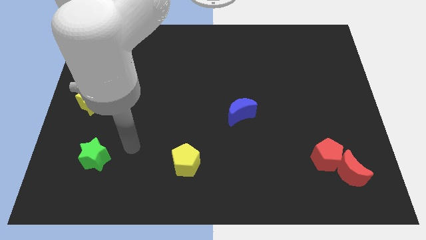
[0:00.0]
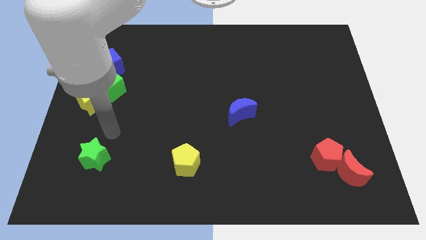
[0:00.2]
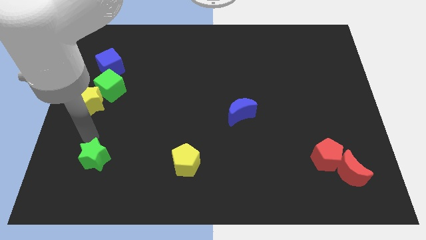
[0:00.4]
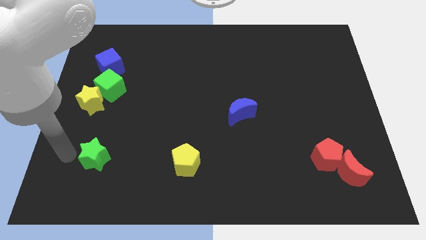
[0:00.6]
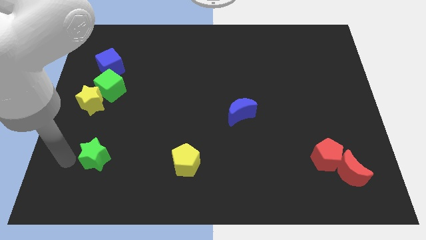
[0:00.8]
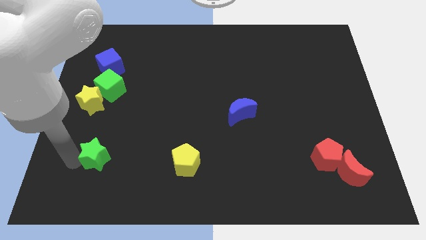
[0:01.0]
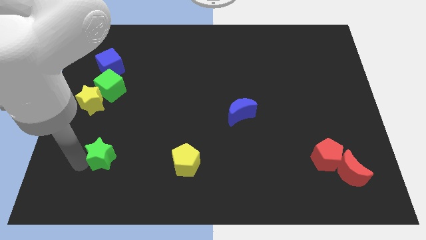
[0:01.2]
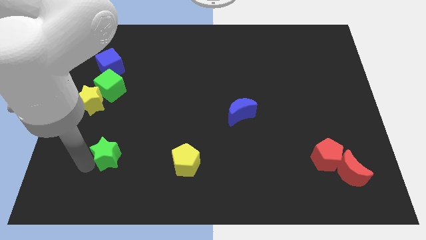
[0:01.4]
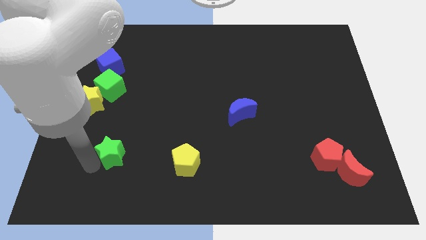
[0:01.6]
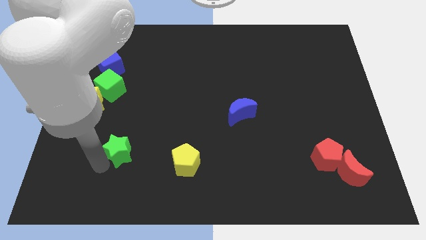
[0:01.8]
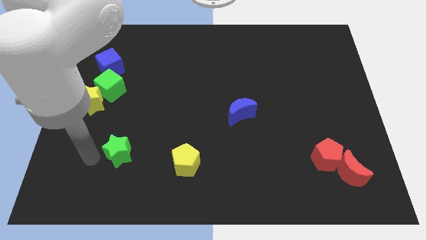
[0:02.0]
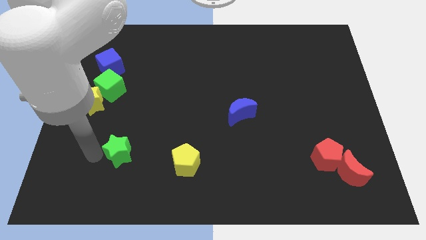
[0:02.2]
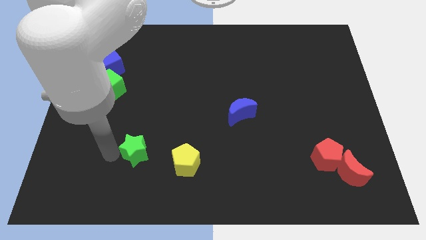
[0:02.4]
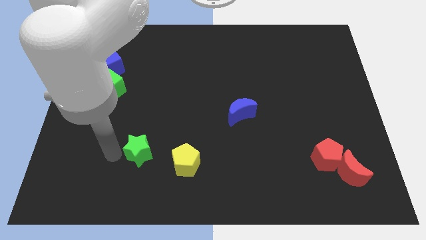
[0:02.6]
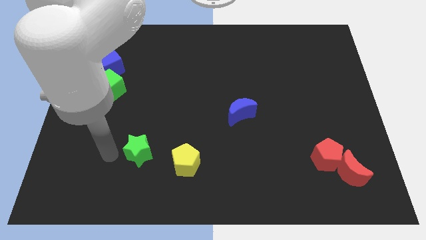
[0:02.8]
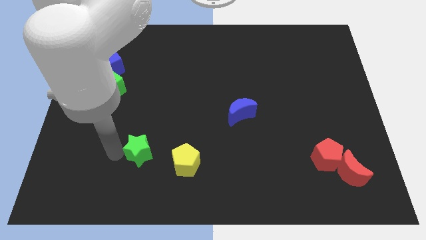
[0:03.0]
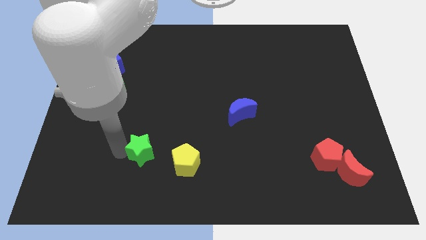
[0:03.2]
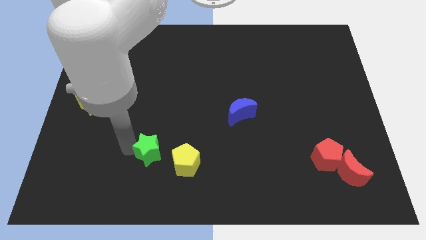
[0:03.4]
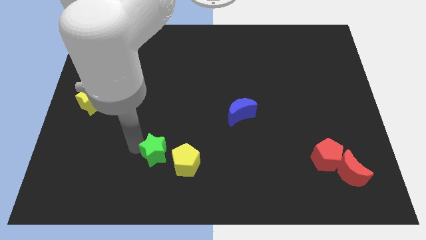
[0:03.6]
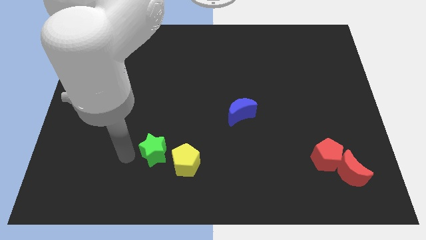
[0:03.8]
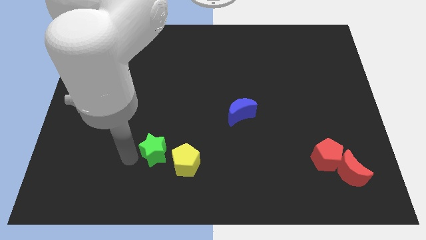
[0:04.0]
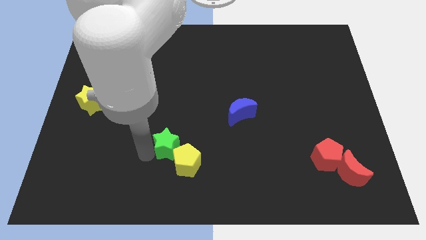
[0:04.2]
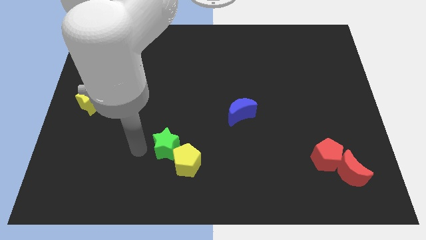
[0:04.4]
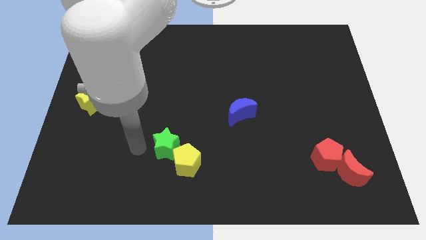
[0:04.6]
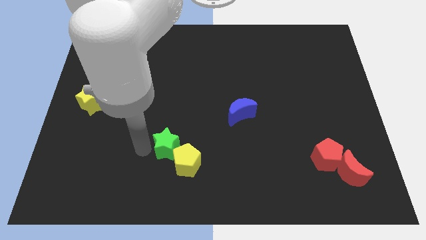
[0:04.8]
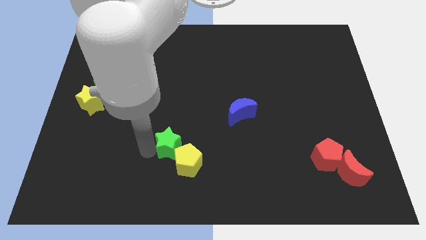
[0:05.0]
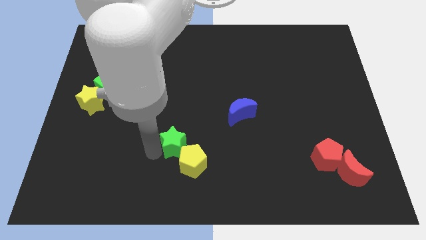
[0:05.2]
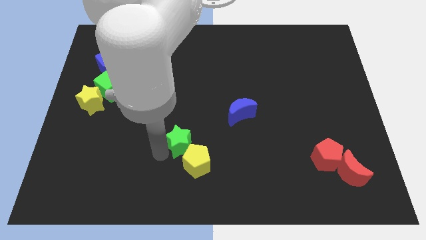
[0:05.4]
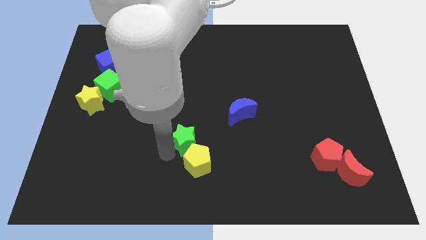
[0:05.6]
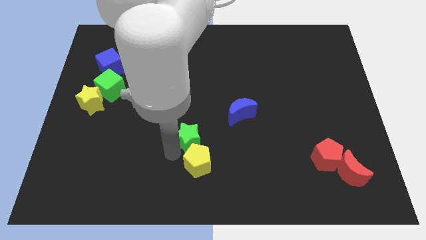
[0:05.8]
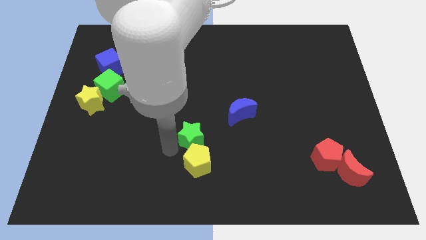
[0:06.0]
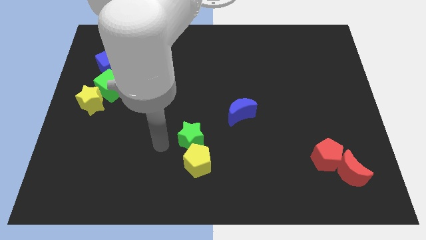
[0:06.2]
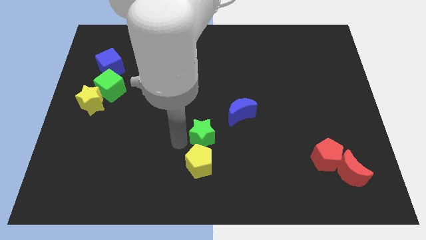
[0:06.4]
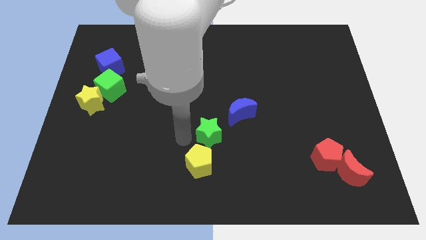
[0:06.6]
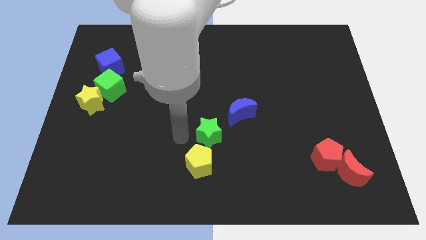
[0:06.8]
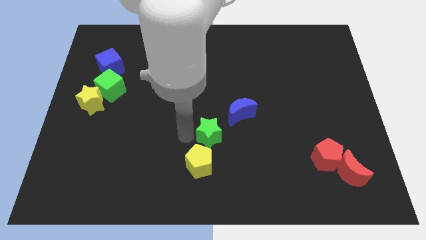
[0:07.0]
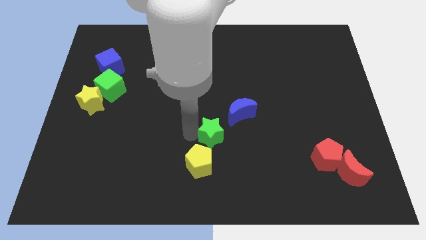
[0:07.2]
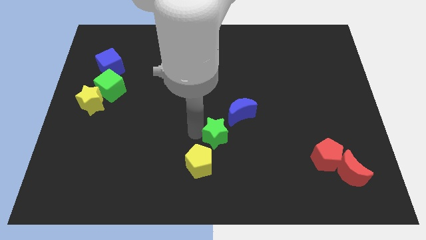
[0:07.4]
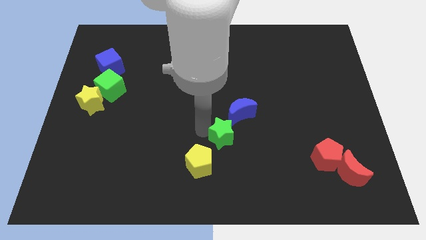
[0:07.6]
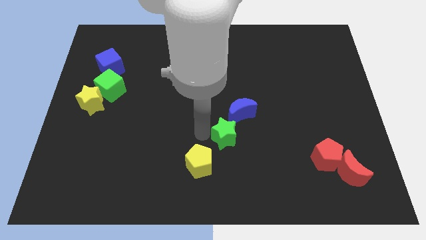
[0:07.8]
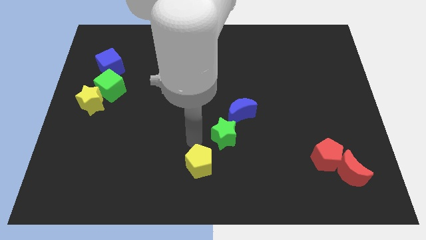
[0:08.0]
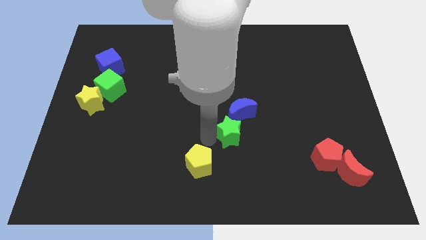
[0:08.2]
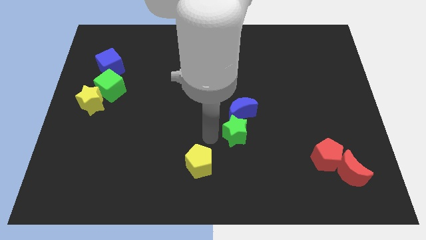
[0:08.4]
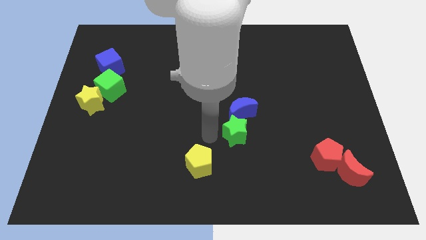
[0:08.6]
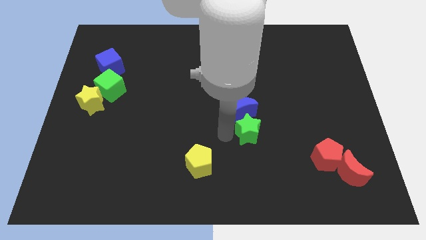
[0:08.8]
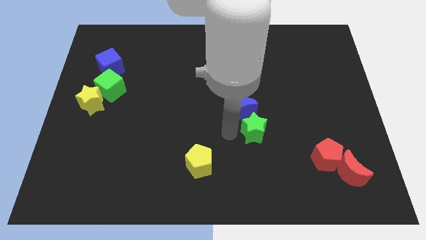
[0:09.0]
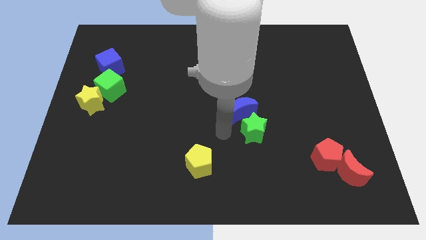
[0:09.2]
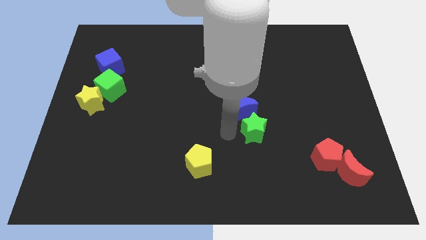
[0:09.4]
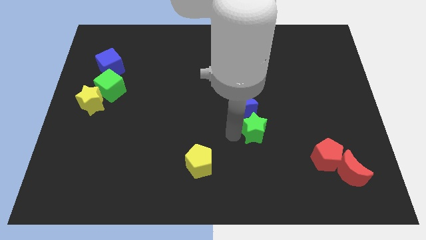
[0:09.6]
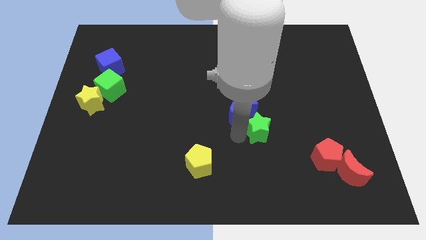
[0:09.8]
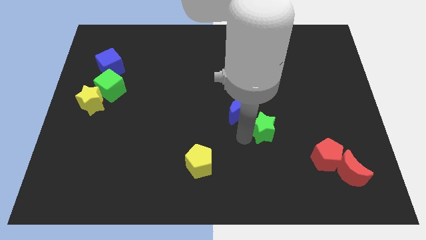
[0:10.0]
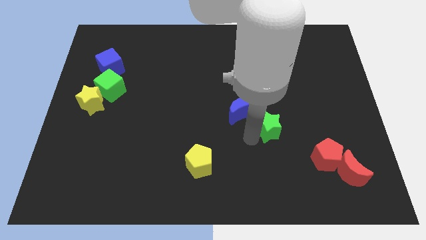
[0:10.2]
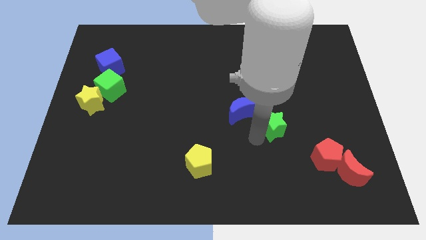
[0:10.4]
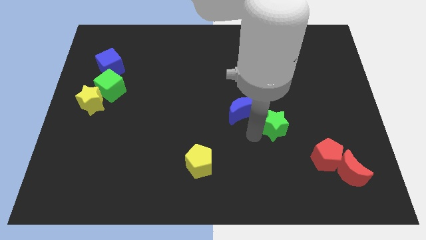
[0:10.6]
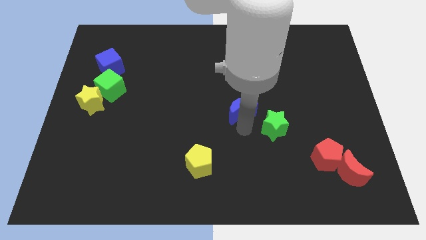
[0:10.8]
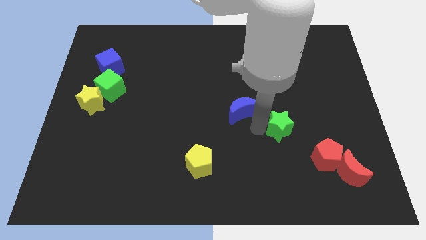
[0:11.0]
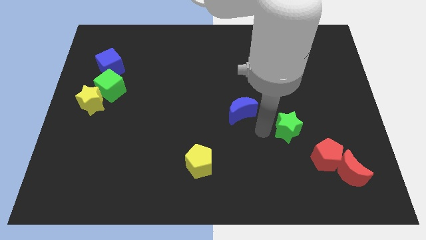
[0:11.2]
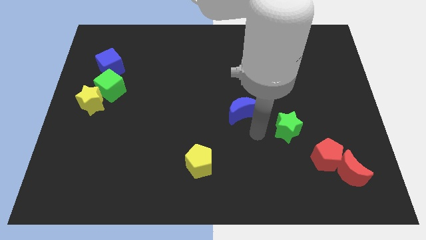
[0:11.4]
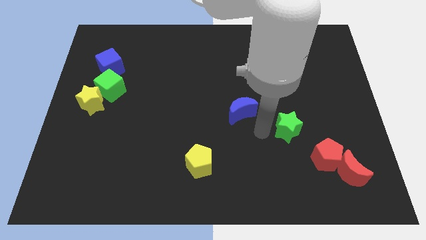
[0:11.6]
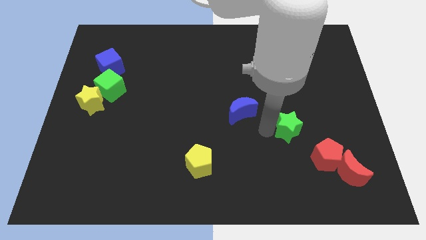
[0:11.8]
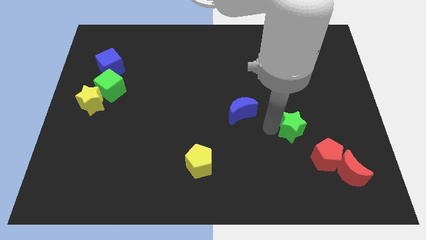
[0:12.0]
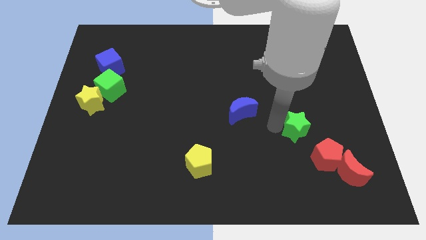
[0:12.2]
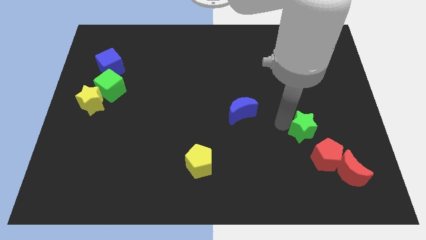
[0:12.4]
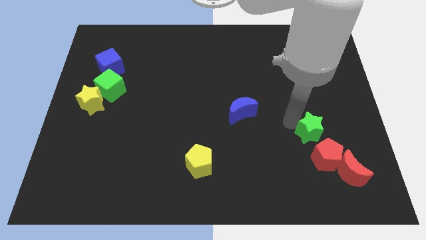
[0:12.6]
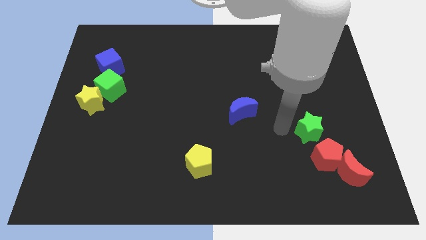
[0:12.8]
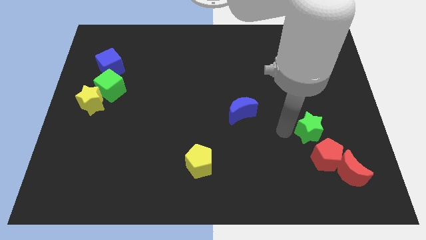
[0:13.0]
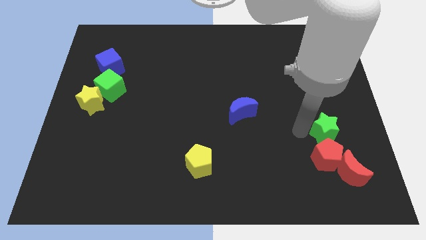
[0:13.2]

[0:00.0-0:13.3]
push the green star to the top of the red moon

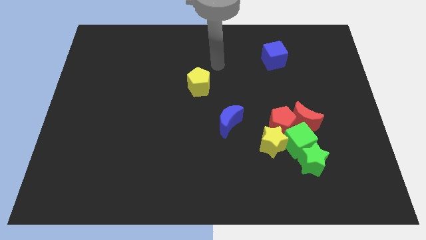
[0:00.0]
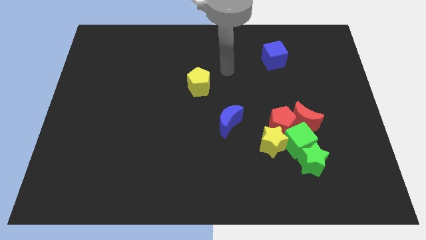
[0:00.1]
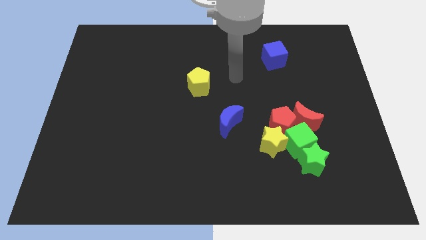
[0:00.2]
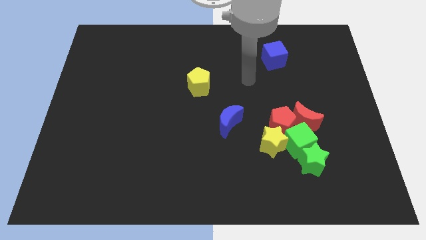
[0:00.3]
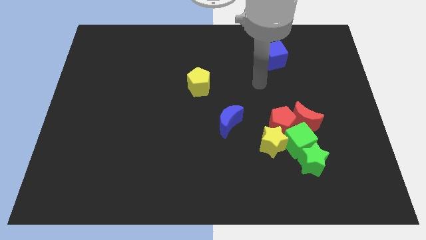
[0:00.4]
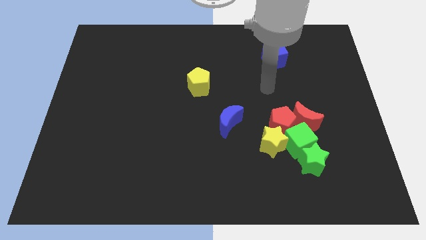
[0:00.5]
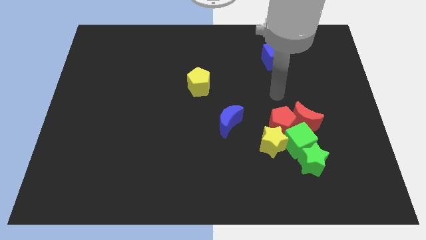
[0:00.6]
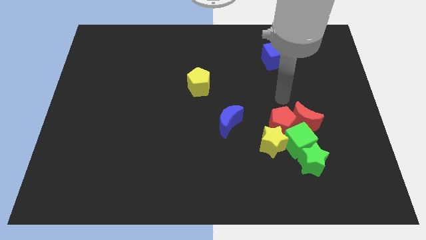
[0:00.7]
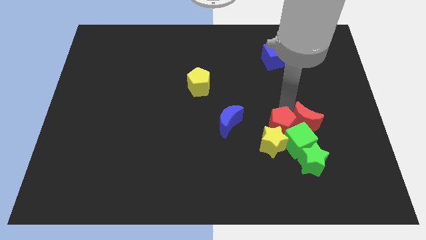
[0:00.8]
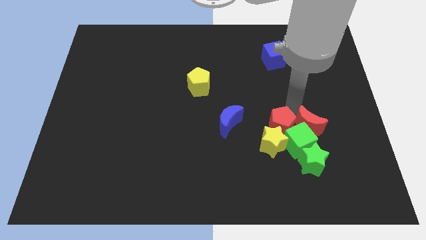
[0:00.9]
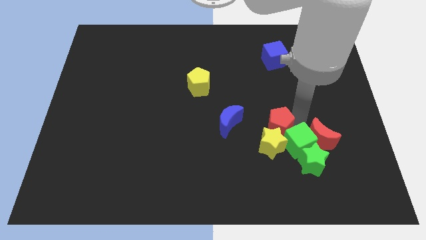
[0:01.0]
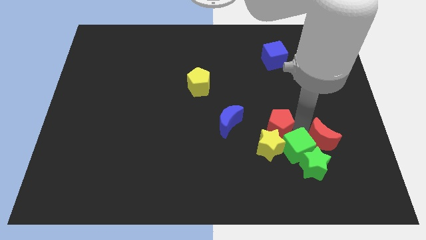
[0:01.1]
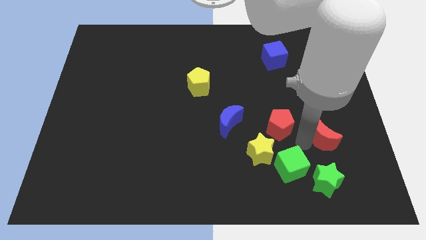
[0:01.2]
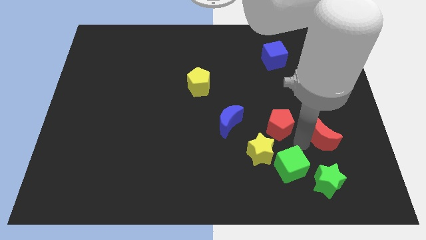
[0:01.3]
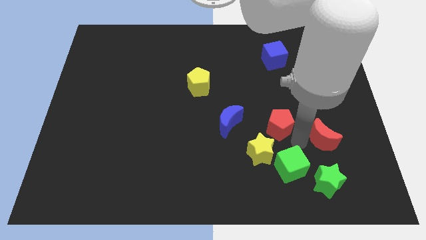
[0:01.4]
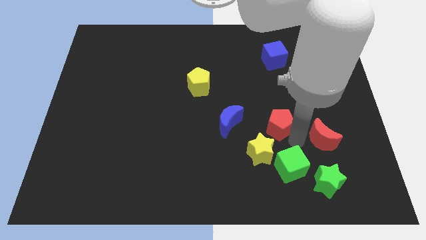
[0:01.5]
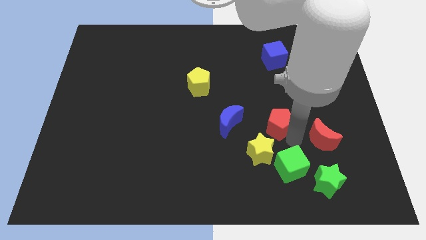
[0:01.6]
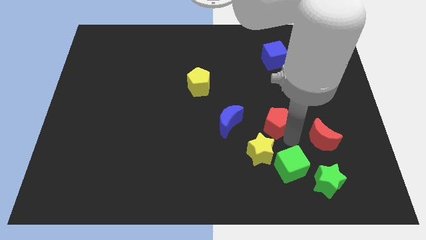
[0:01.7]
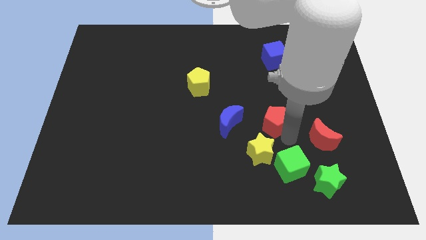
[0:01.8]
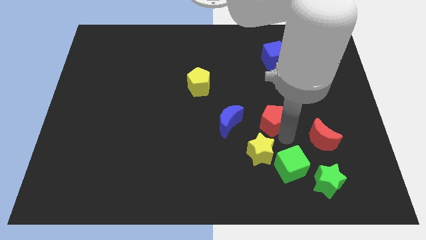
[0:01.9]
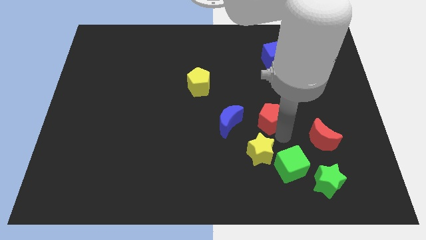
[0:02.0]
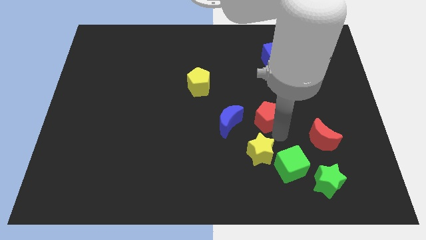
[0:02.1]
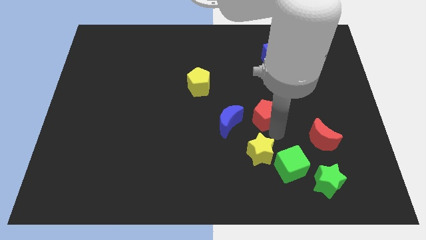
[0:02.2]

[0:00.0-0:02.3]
put the red pentagon diagonally up and to the right of the blue moon
